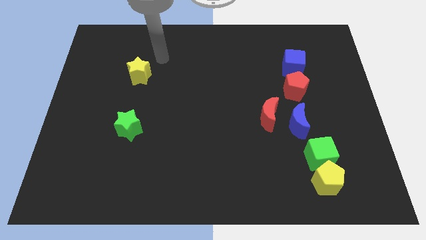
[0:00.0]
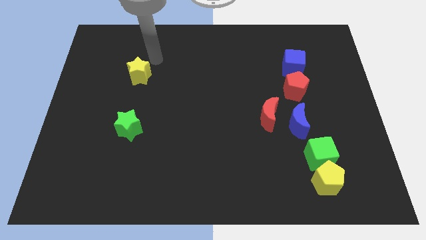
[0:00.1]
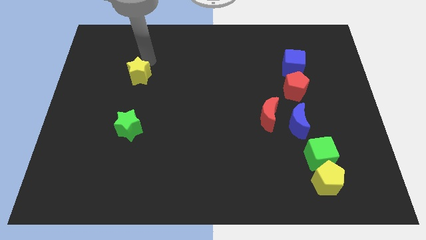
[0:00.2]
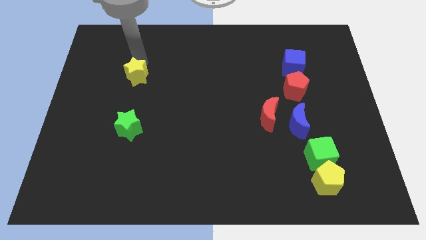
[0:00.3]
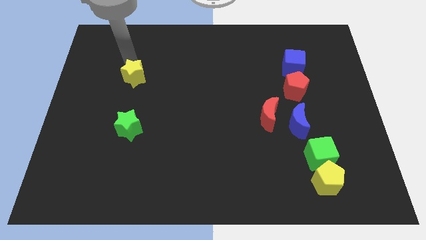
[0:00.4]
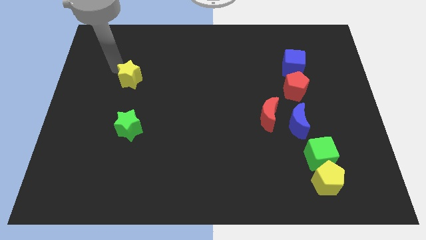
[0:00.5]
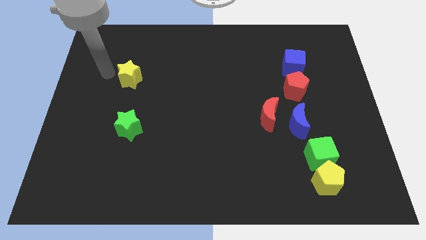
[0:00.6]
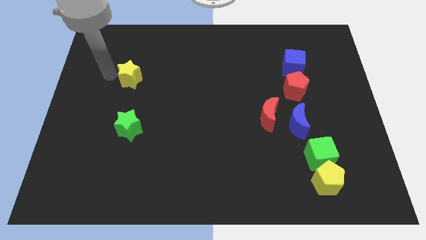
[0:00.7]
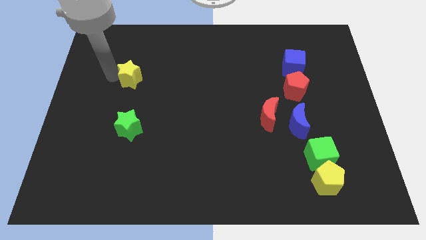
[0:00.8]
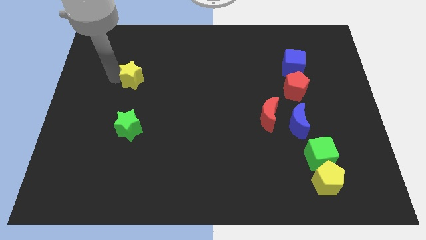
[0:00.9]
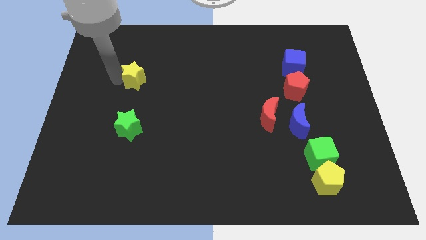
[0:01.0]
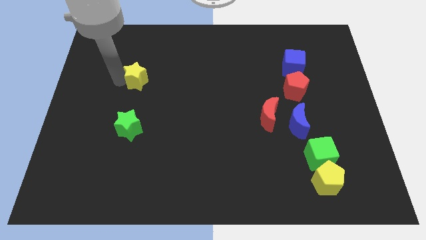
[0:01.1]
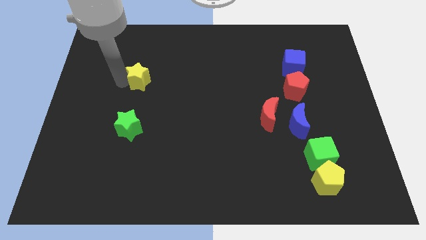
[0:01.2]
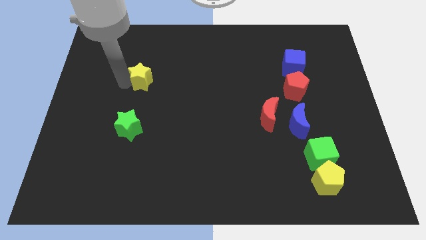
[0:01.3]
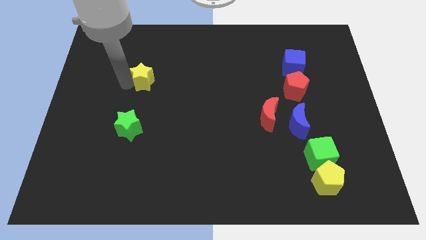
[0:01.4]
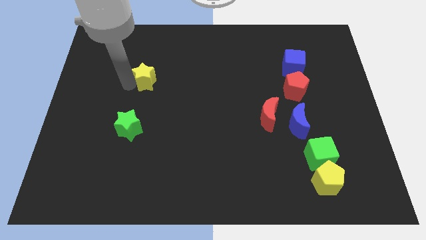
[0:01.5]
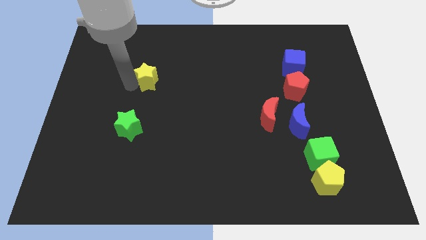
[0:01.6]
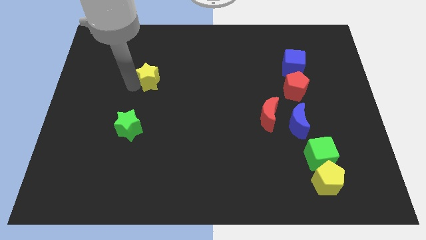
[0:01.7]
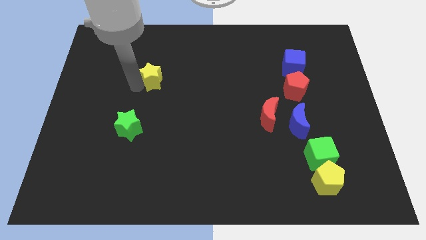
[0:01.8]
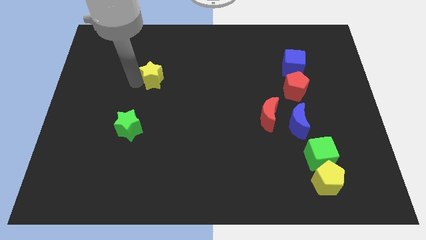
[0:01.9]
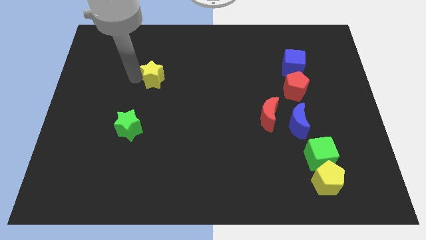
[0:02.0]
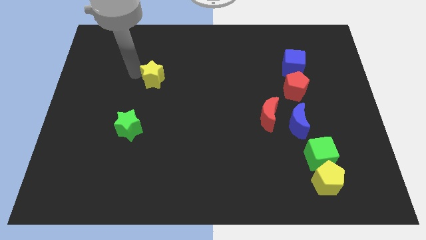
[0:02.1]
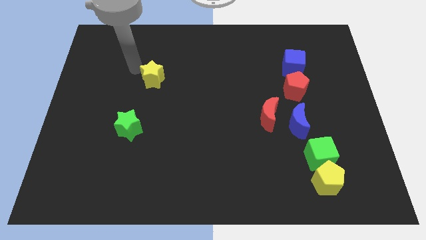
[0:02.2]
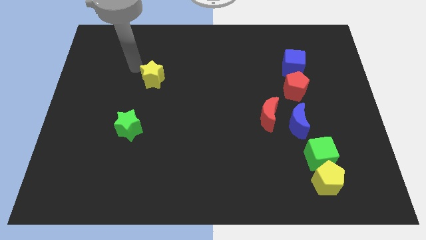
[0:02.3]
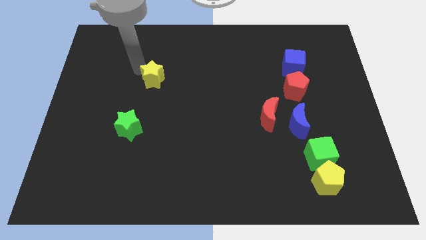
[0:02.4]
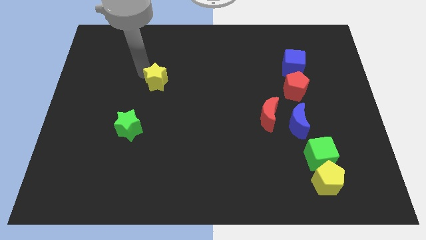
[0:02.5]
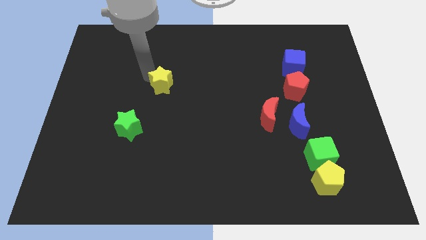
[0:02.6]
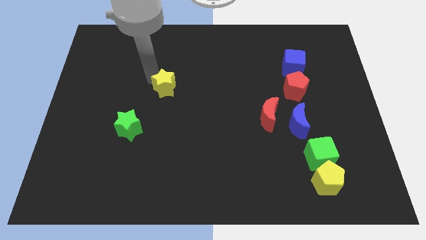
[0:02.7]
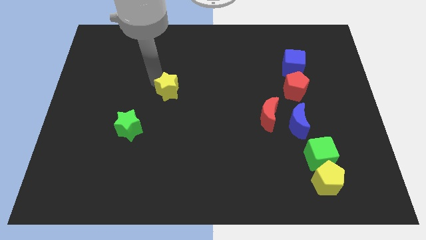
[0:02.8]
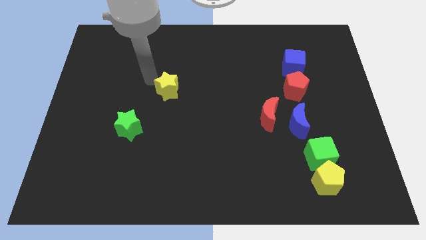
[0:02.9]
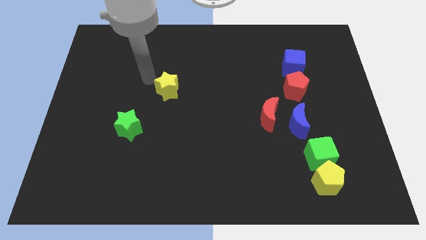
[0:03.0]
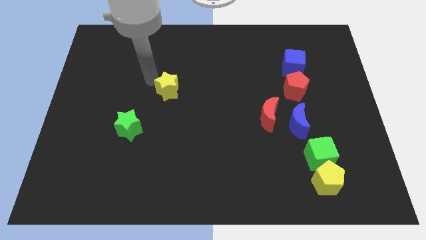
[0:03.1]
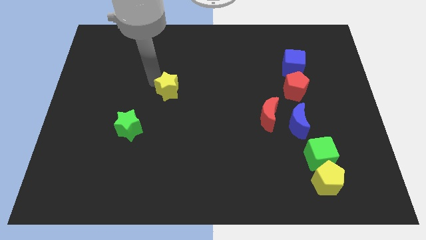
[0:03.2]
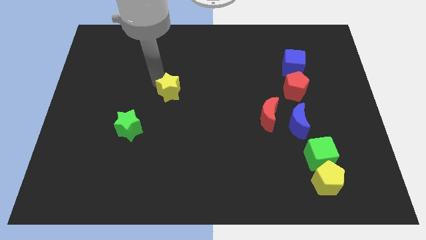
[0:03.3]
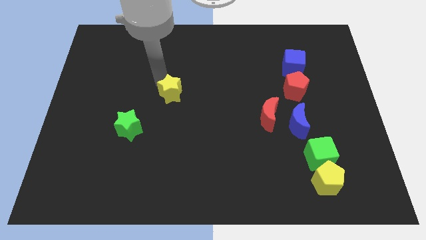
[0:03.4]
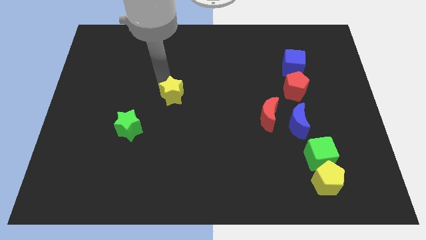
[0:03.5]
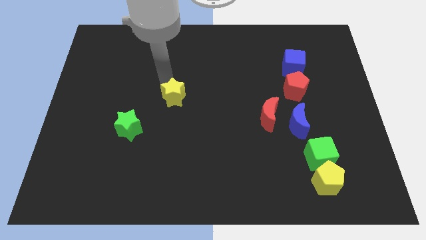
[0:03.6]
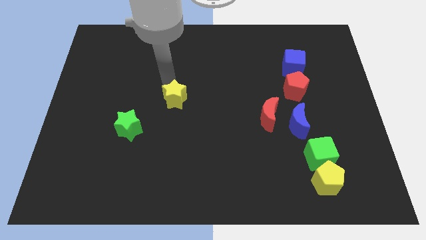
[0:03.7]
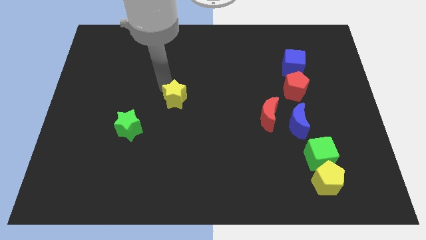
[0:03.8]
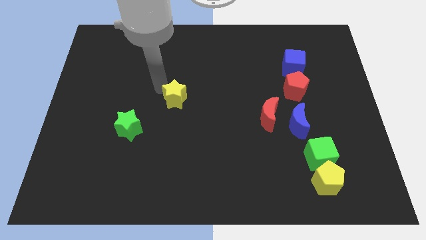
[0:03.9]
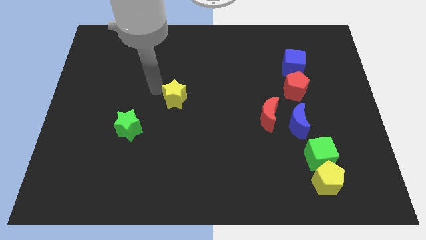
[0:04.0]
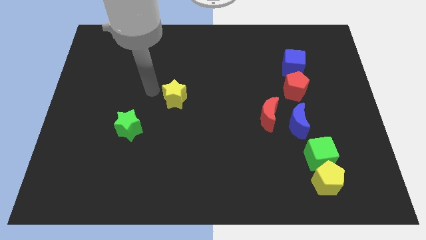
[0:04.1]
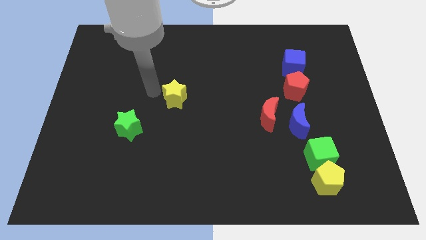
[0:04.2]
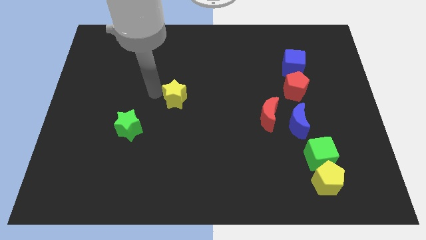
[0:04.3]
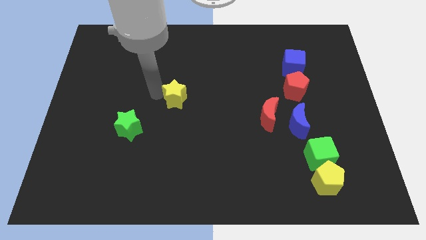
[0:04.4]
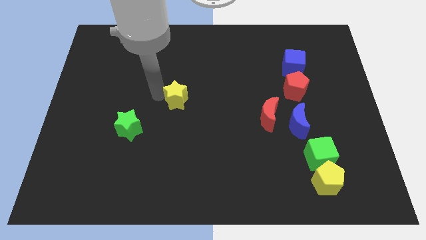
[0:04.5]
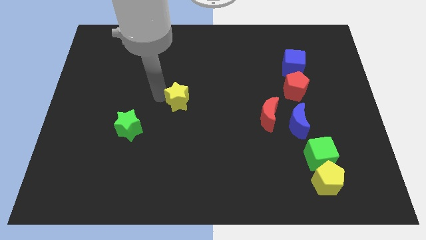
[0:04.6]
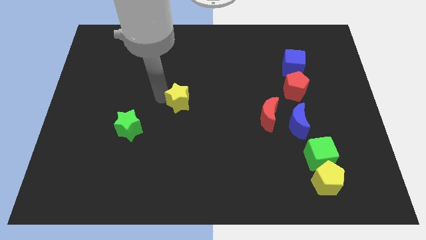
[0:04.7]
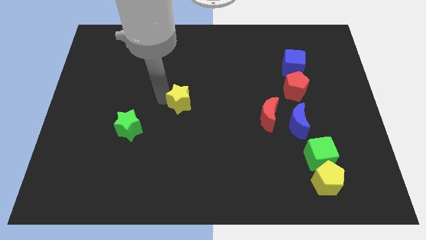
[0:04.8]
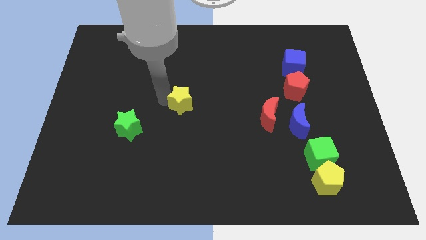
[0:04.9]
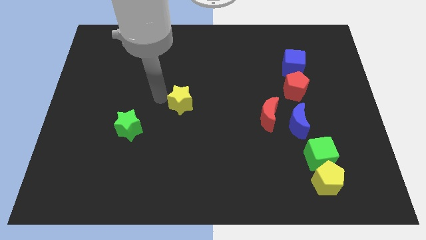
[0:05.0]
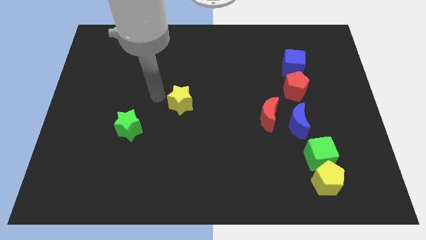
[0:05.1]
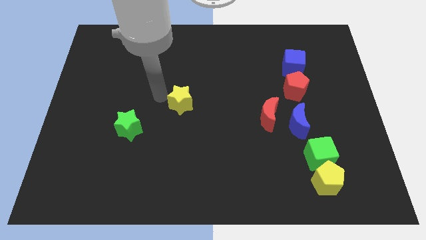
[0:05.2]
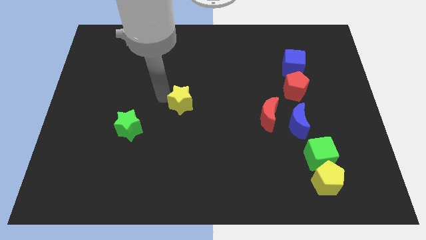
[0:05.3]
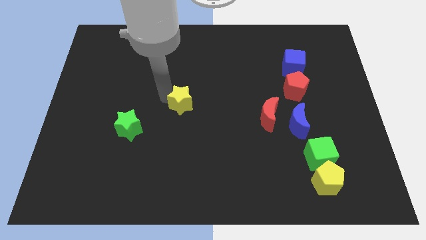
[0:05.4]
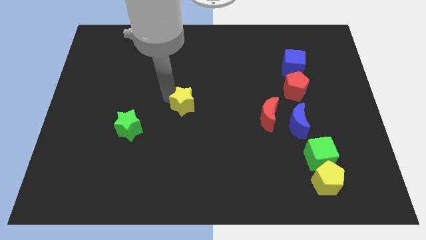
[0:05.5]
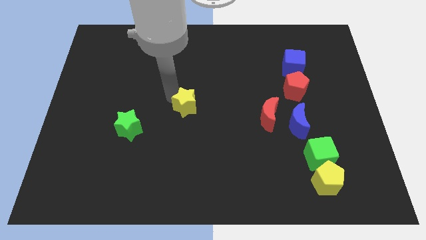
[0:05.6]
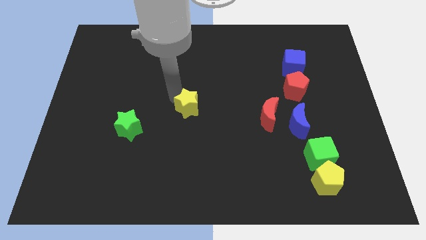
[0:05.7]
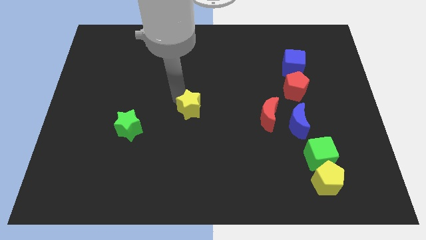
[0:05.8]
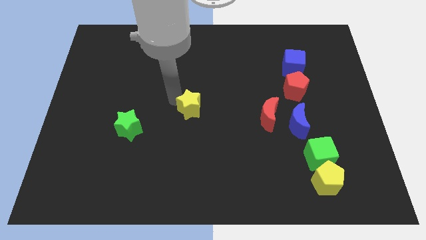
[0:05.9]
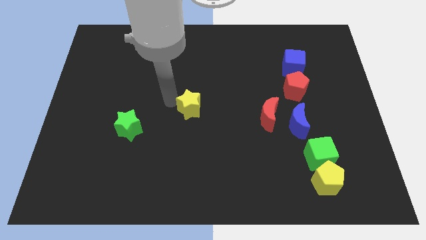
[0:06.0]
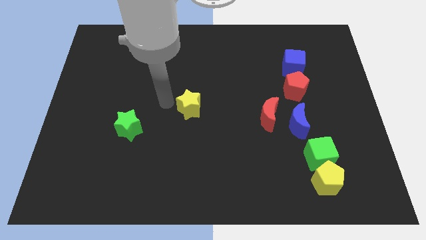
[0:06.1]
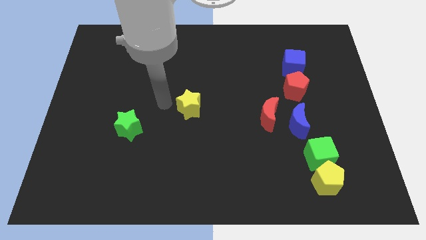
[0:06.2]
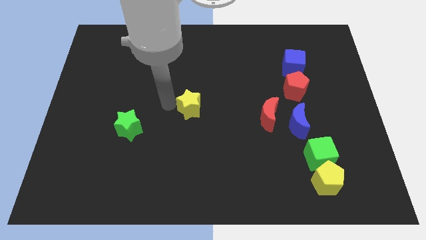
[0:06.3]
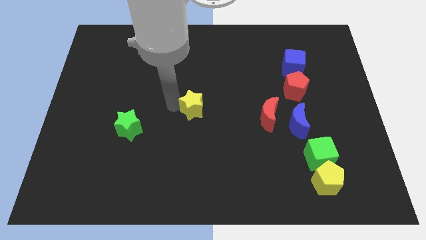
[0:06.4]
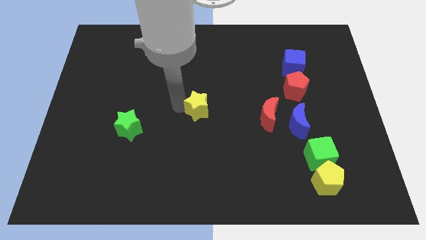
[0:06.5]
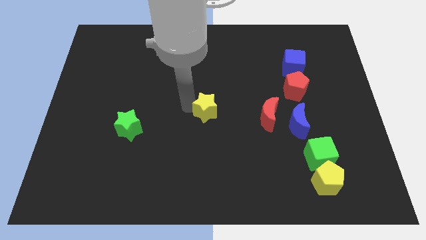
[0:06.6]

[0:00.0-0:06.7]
push the yellow star downwards and then to the right

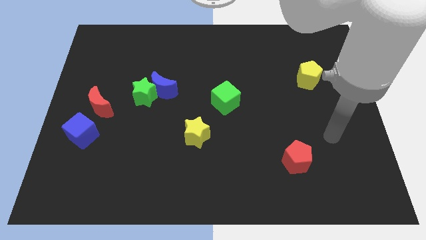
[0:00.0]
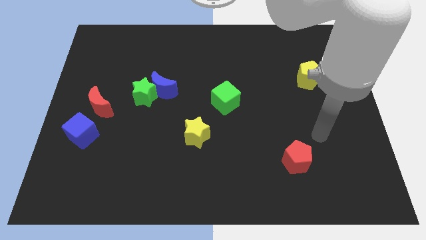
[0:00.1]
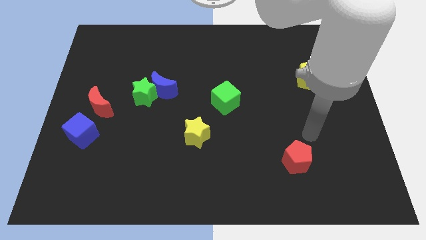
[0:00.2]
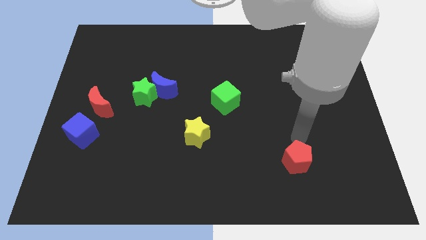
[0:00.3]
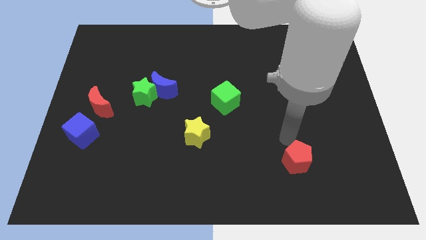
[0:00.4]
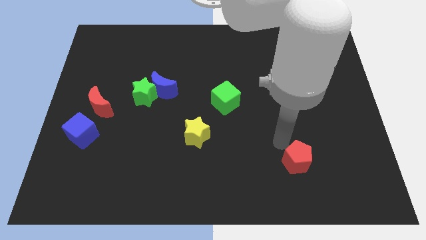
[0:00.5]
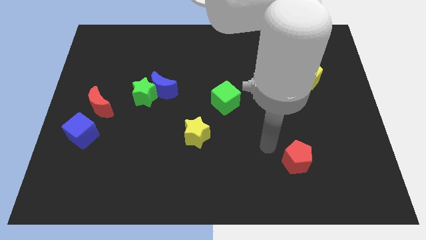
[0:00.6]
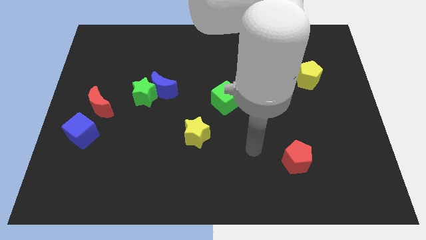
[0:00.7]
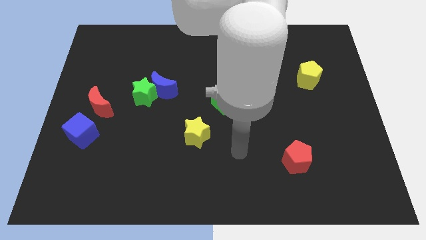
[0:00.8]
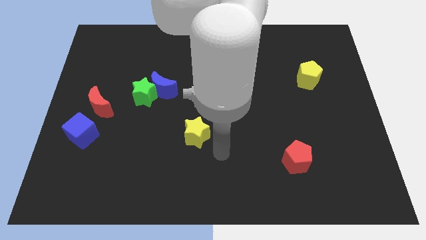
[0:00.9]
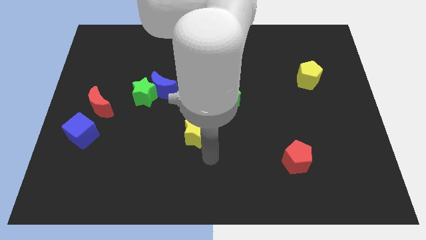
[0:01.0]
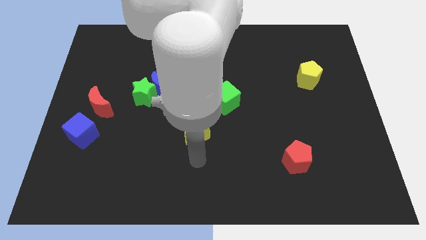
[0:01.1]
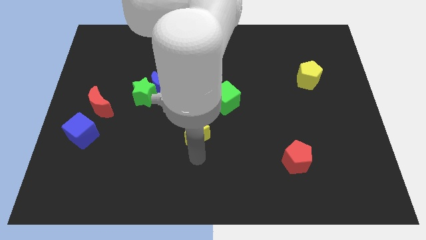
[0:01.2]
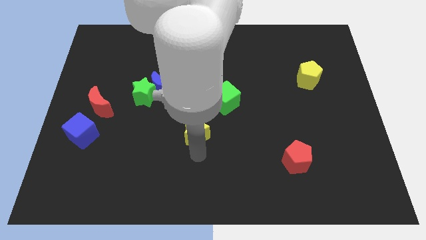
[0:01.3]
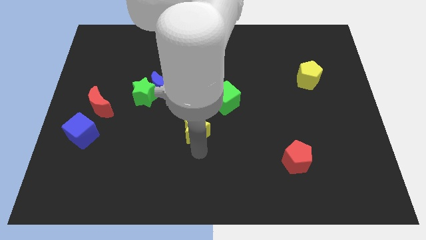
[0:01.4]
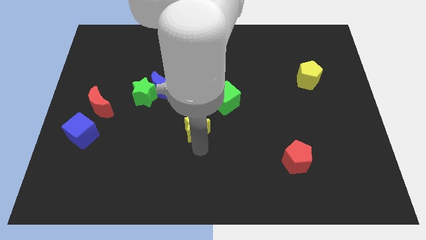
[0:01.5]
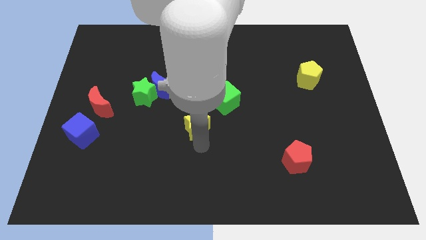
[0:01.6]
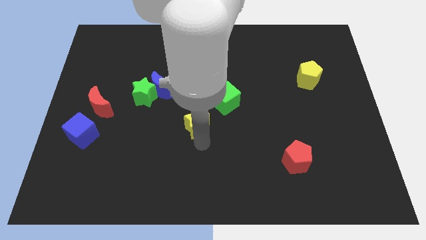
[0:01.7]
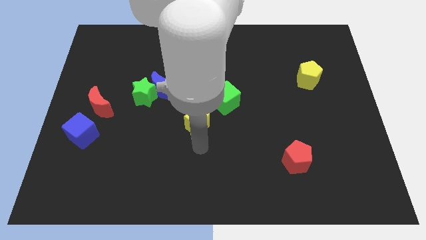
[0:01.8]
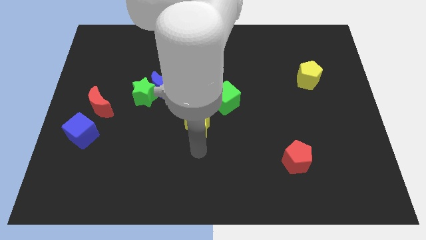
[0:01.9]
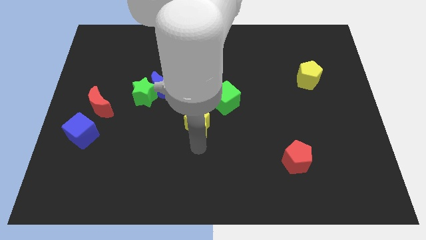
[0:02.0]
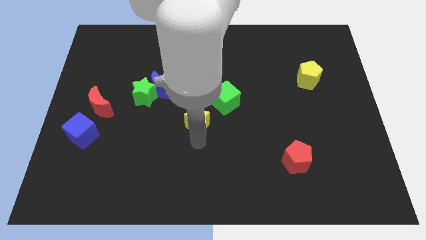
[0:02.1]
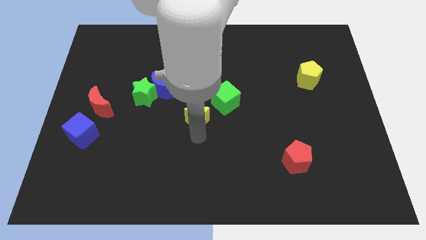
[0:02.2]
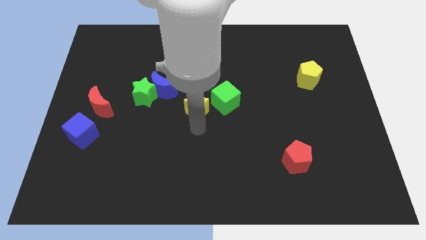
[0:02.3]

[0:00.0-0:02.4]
slide the yellow star somewhat upwards
